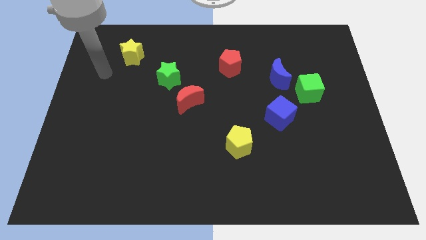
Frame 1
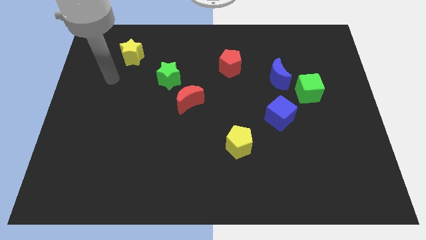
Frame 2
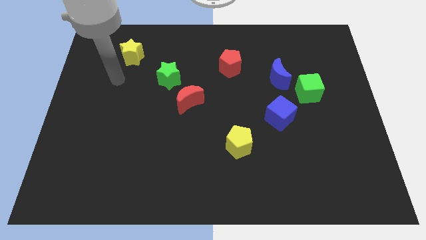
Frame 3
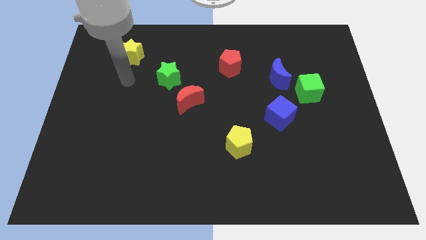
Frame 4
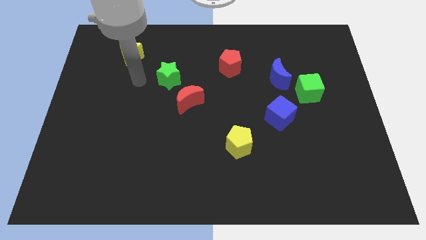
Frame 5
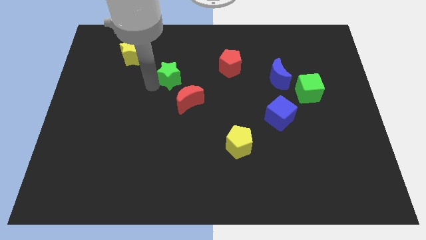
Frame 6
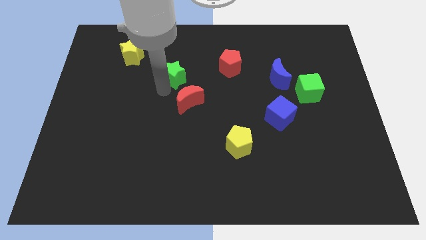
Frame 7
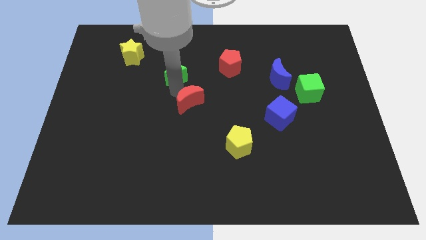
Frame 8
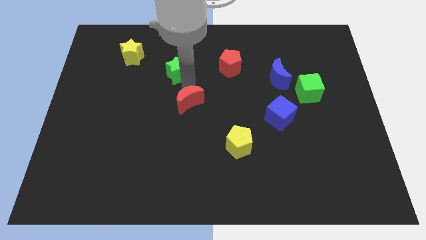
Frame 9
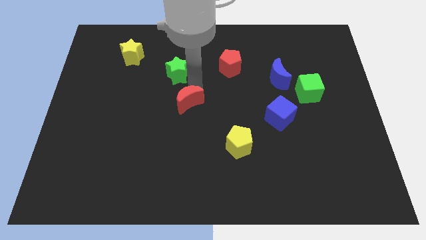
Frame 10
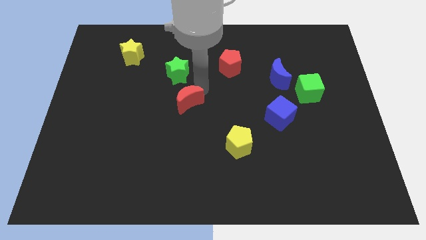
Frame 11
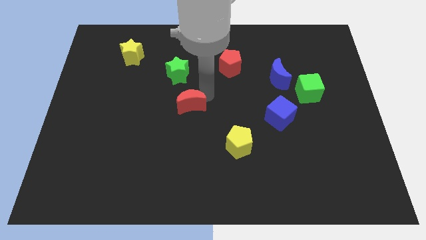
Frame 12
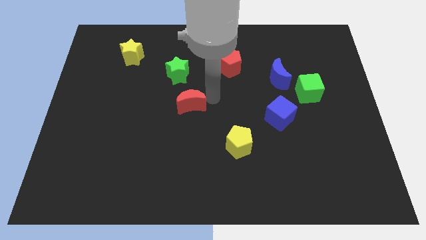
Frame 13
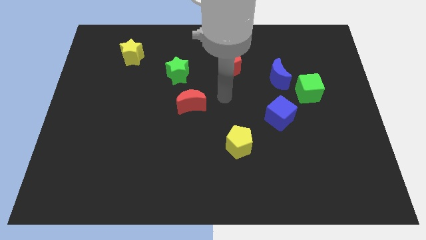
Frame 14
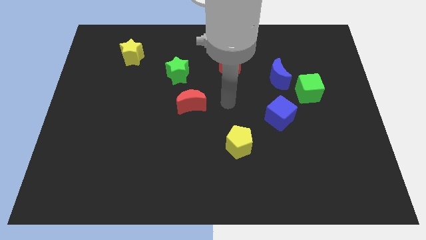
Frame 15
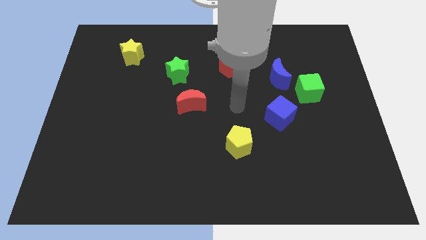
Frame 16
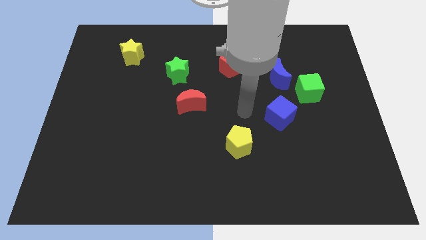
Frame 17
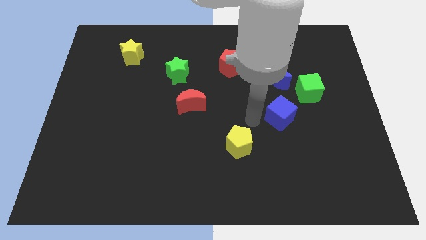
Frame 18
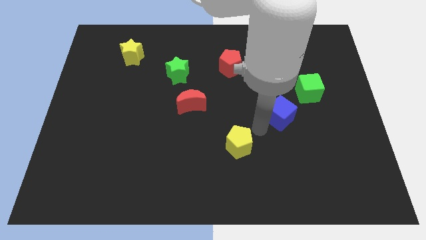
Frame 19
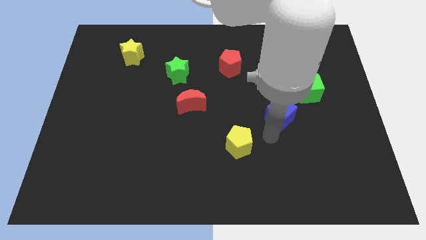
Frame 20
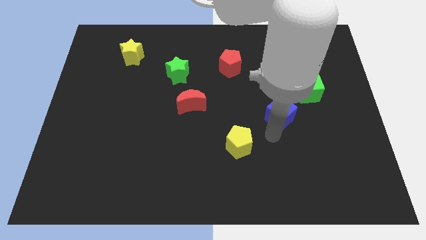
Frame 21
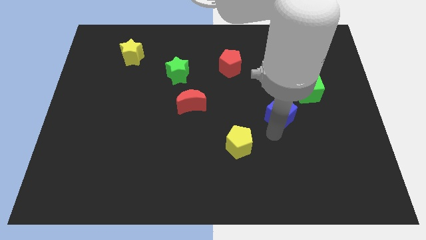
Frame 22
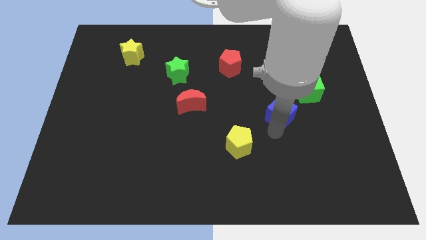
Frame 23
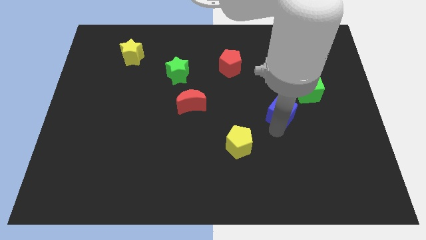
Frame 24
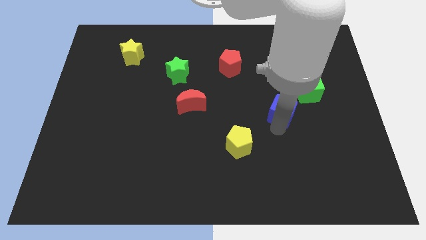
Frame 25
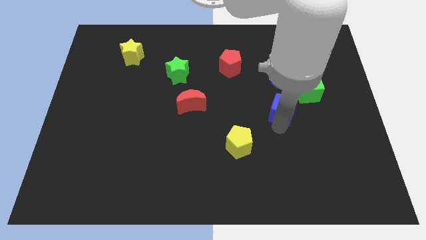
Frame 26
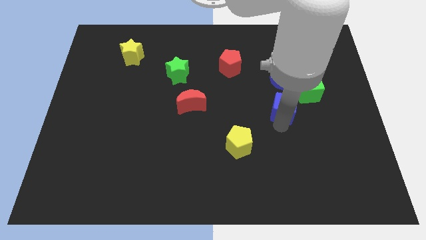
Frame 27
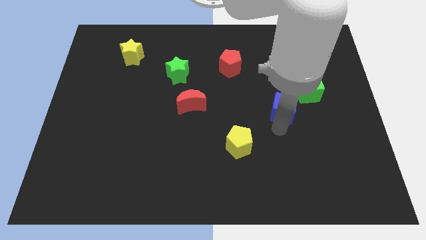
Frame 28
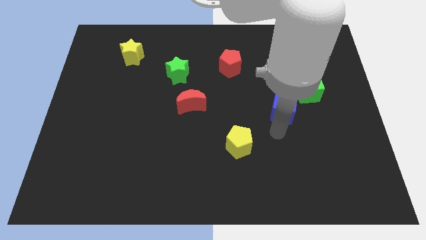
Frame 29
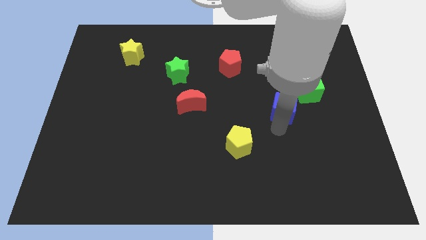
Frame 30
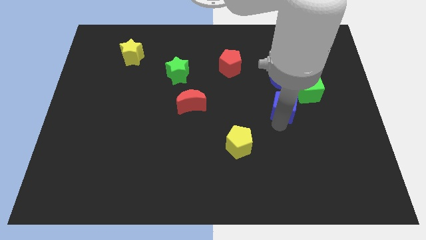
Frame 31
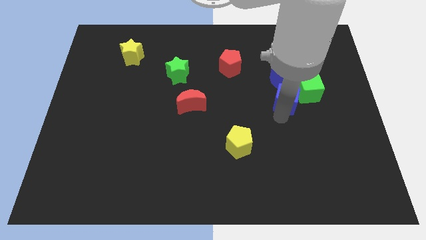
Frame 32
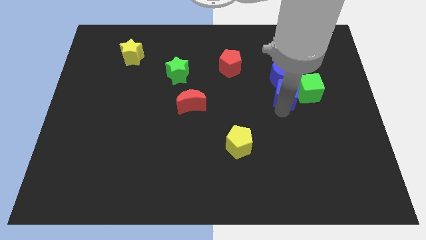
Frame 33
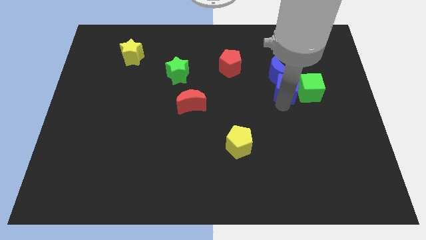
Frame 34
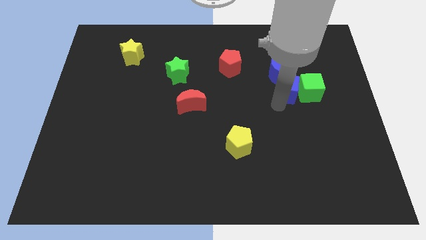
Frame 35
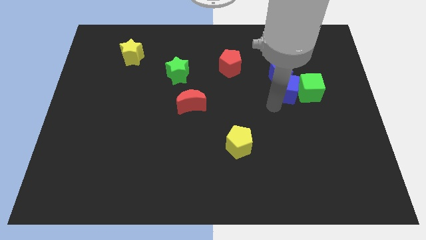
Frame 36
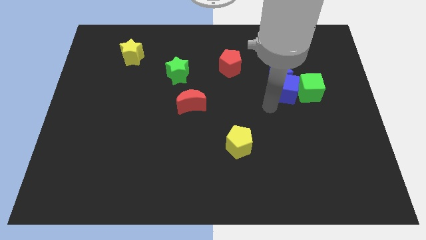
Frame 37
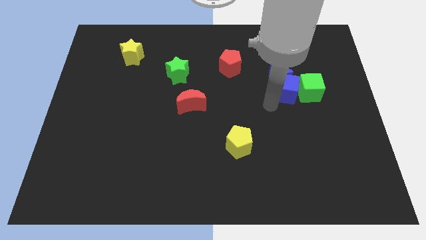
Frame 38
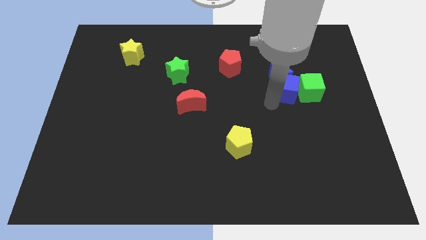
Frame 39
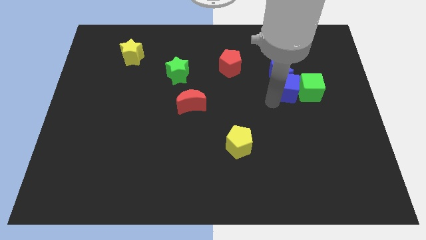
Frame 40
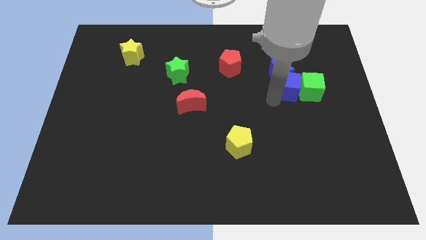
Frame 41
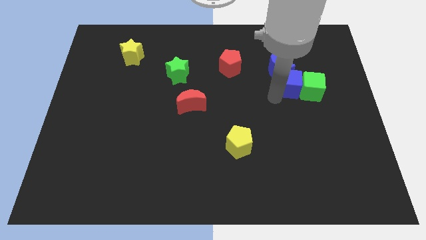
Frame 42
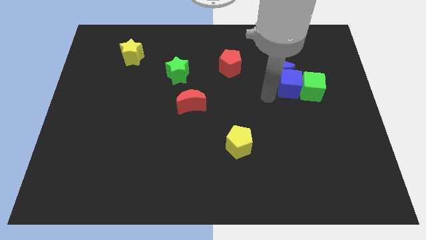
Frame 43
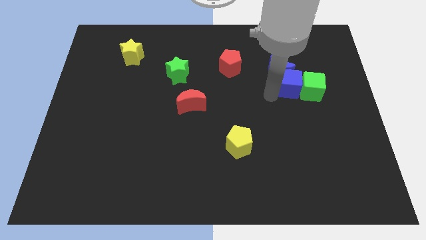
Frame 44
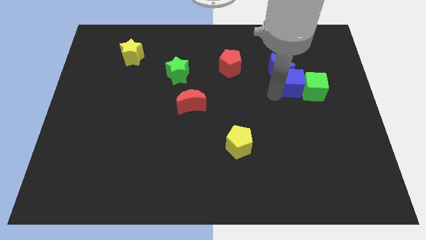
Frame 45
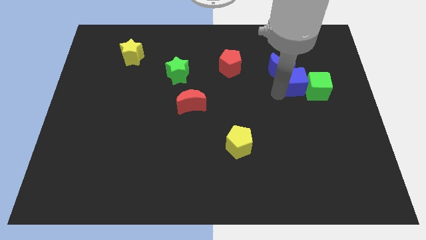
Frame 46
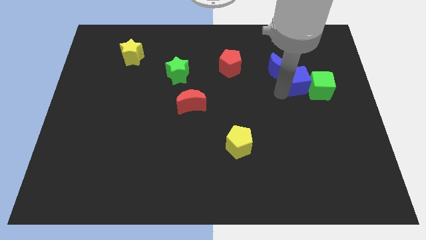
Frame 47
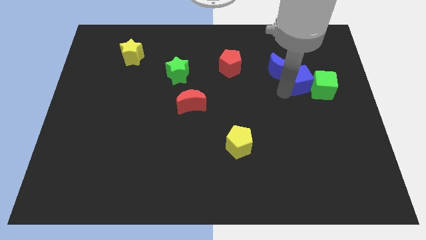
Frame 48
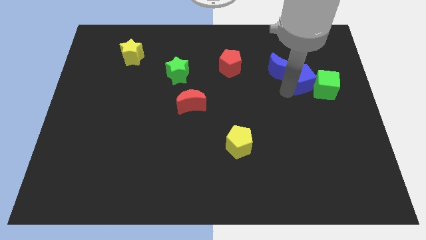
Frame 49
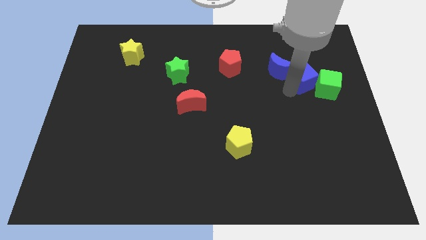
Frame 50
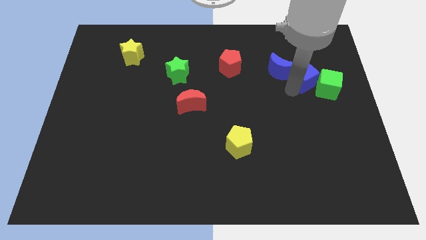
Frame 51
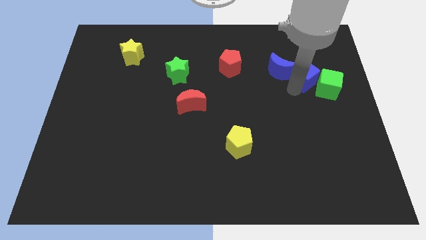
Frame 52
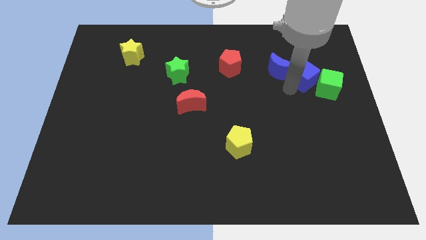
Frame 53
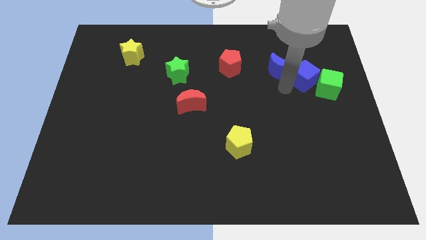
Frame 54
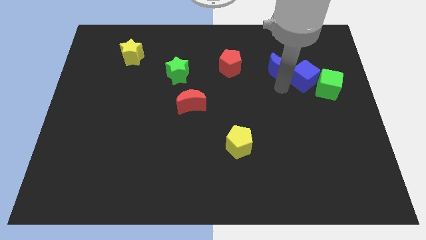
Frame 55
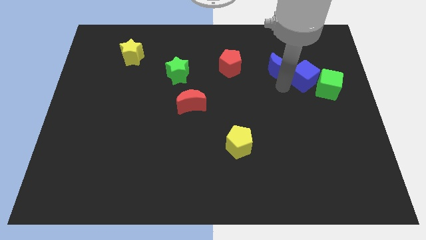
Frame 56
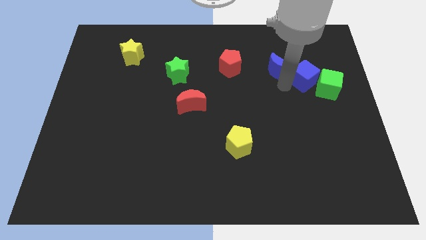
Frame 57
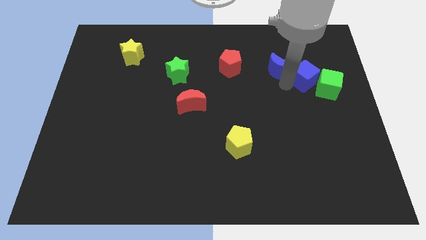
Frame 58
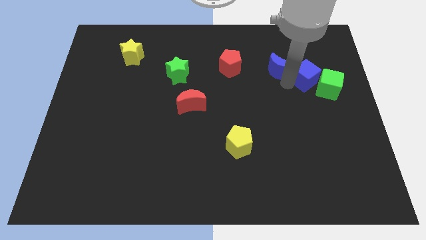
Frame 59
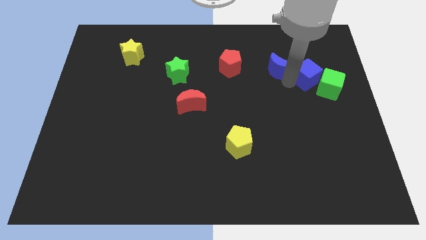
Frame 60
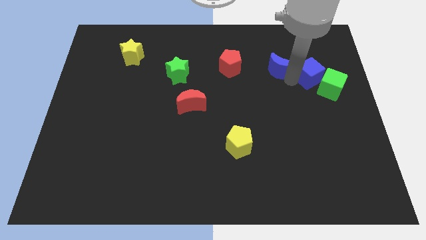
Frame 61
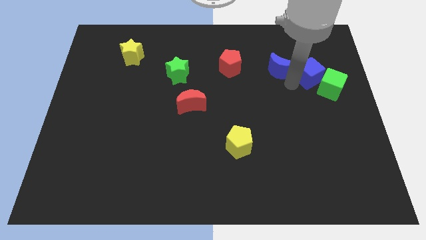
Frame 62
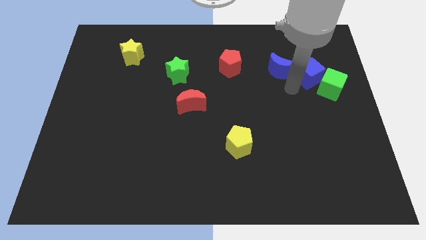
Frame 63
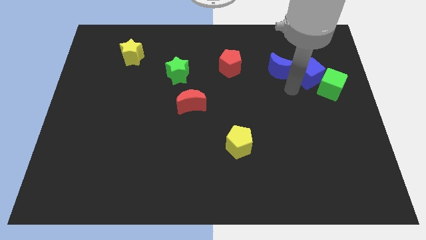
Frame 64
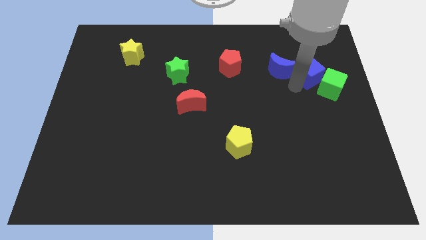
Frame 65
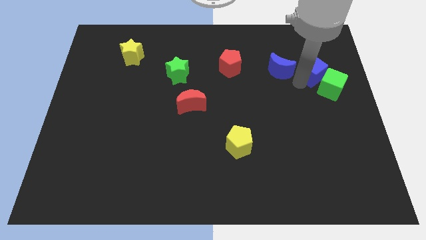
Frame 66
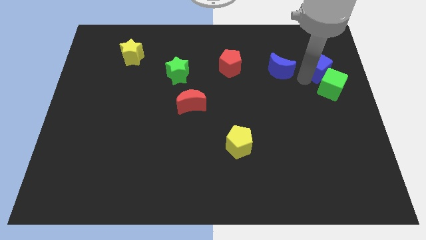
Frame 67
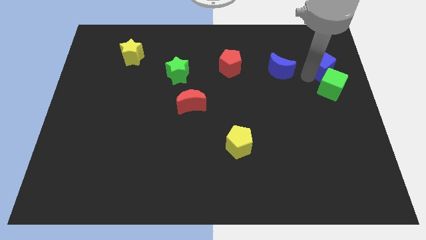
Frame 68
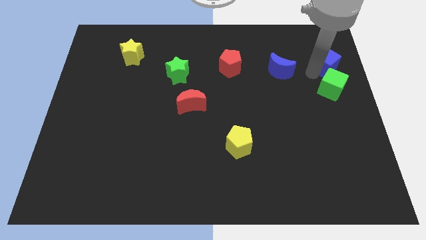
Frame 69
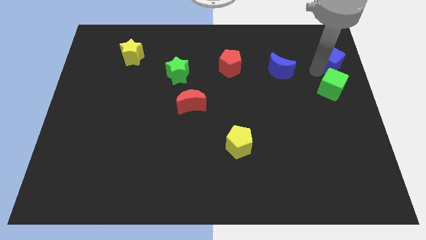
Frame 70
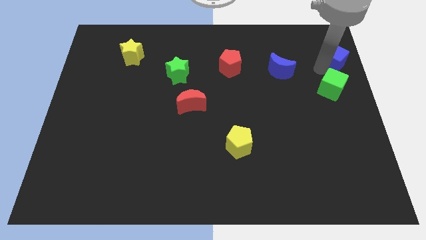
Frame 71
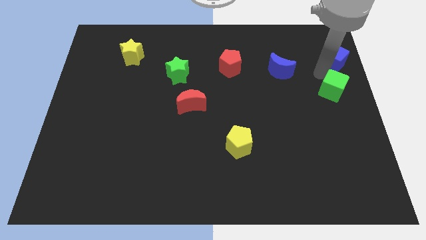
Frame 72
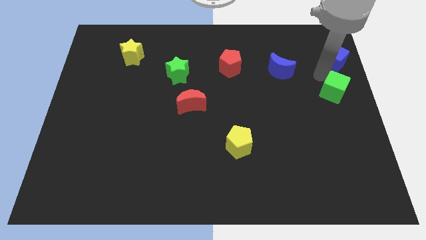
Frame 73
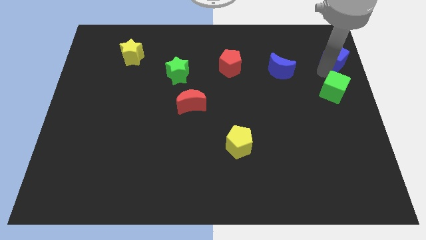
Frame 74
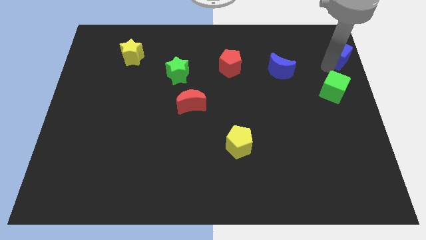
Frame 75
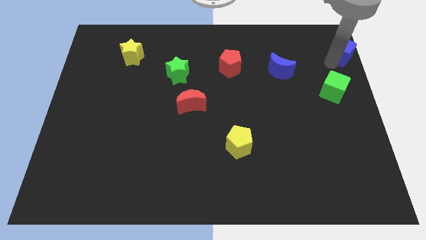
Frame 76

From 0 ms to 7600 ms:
push the blue cube to the upper right corner
